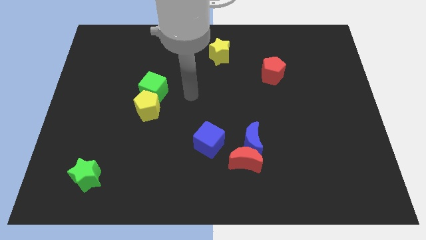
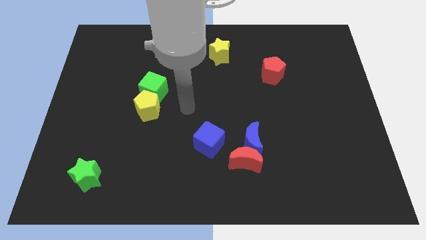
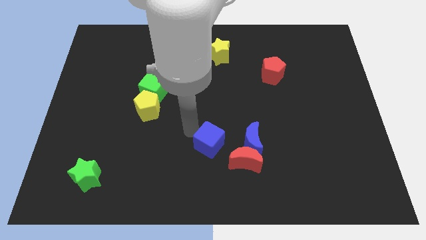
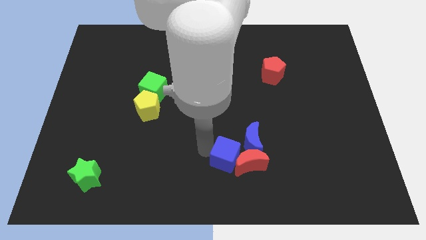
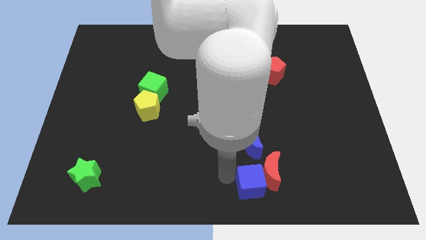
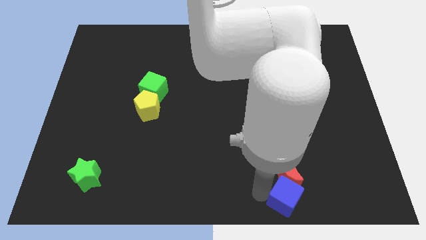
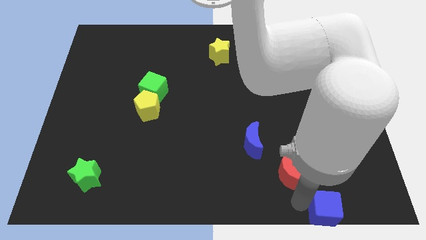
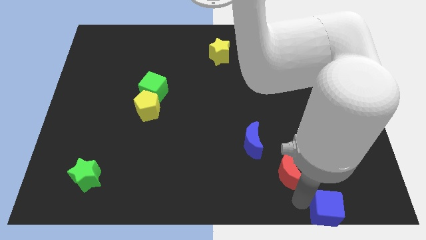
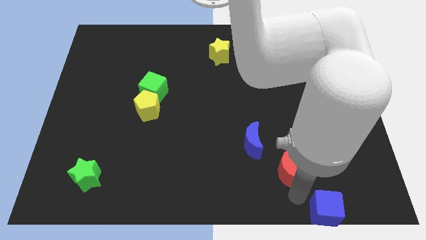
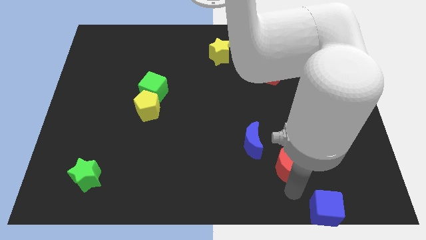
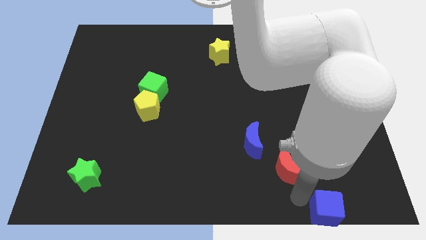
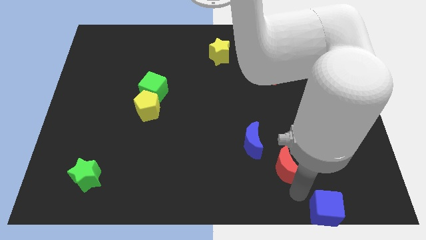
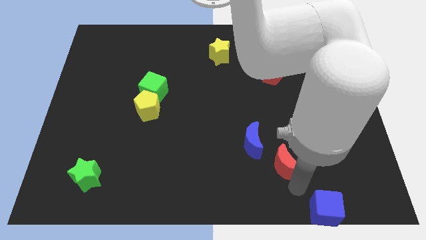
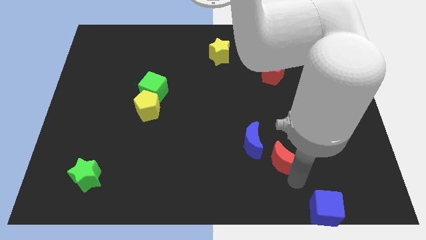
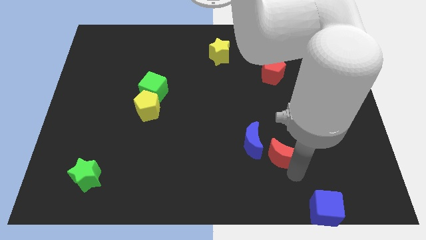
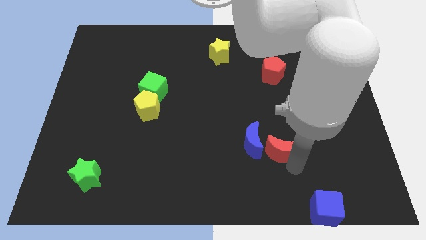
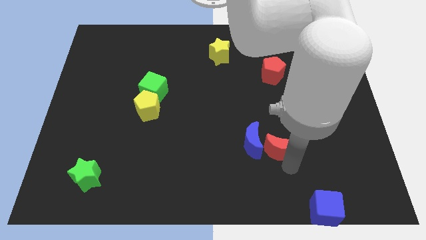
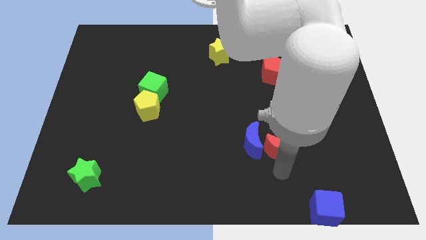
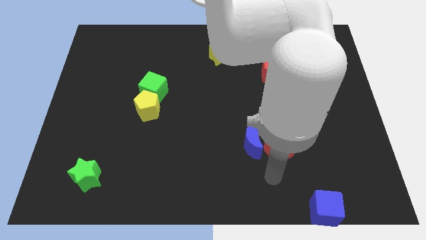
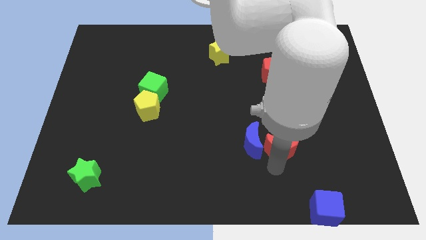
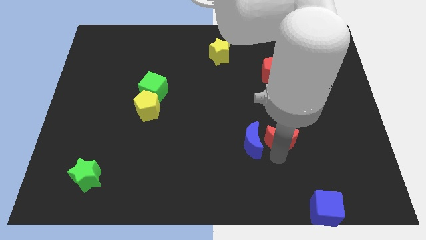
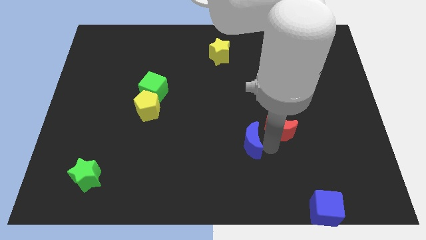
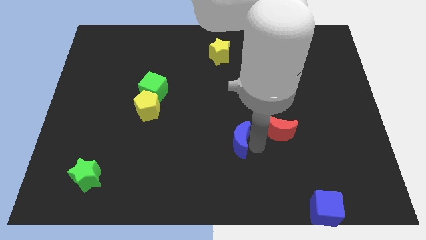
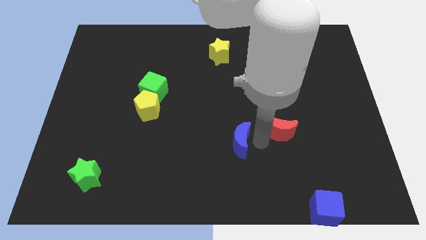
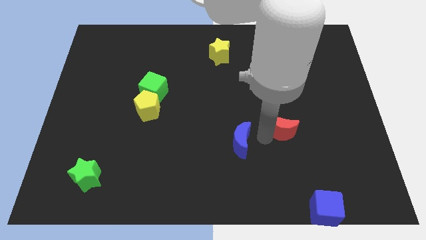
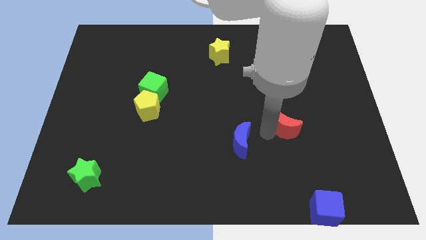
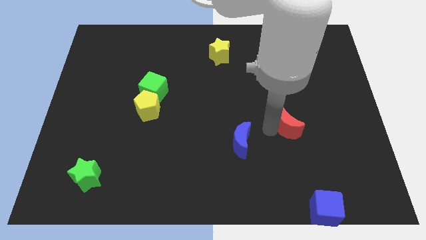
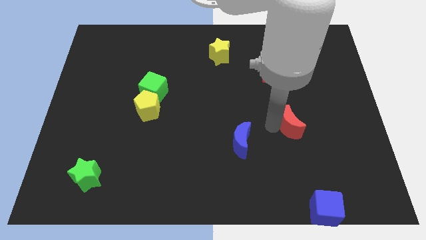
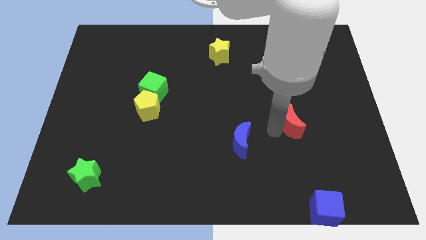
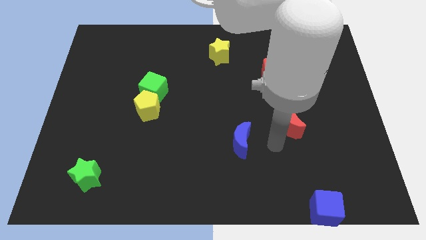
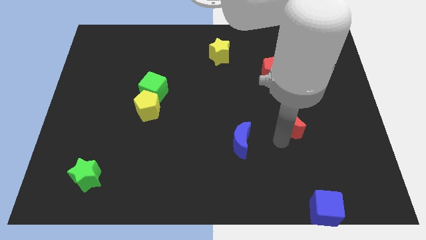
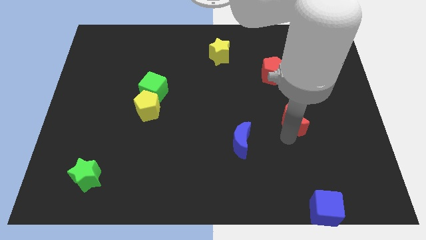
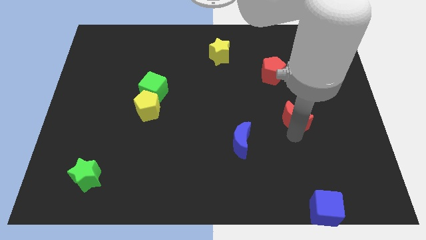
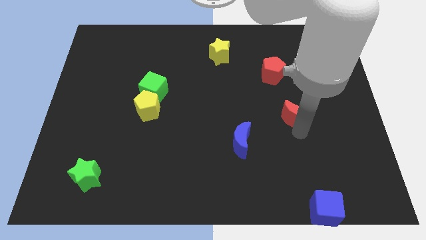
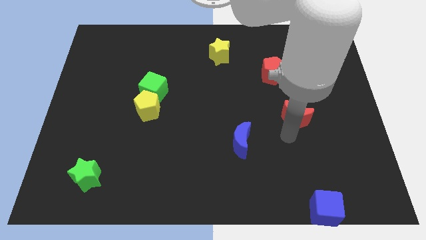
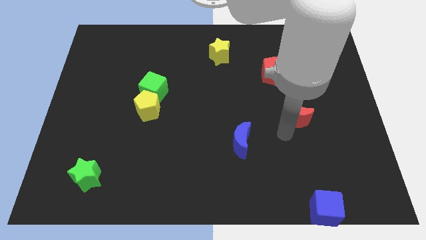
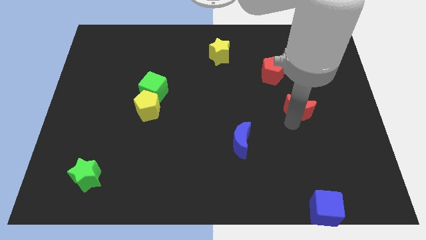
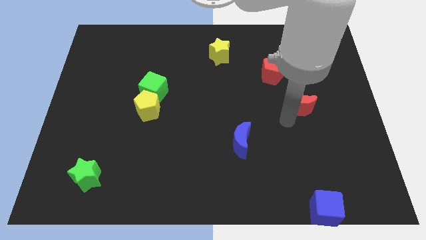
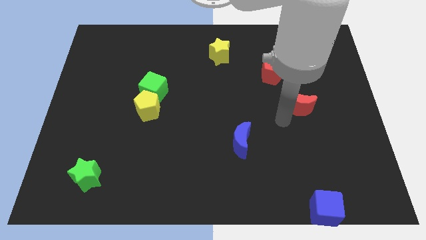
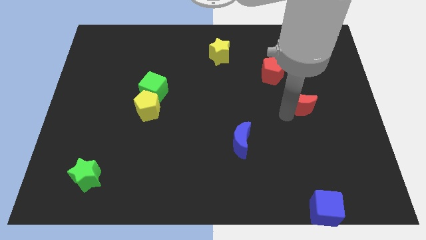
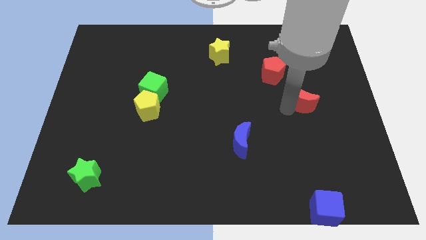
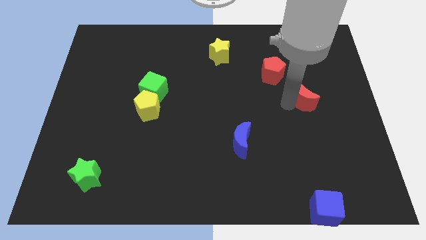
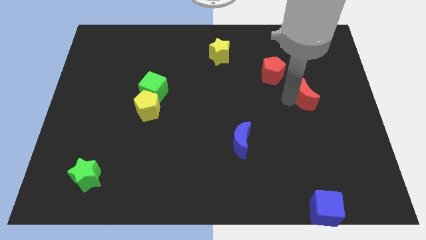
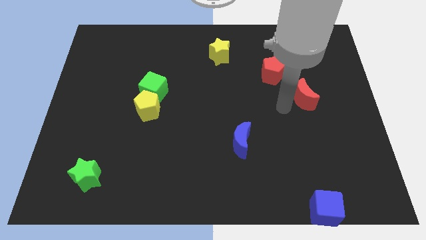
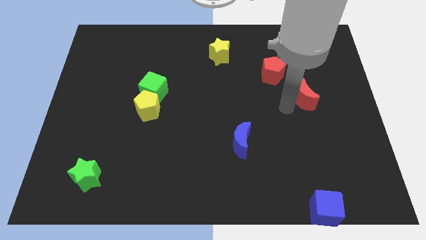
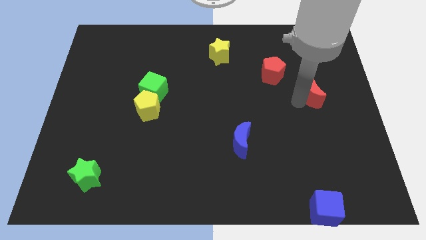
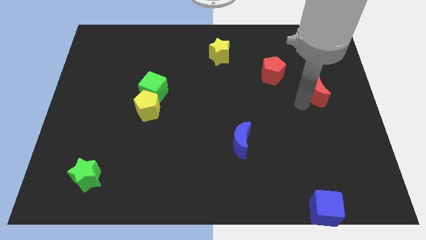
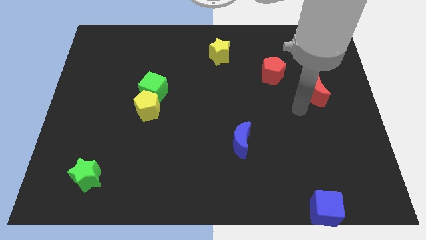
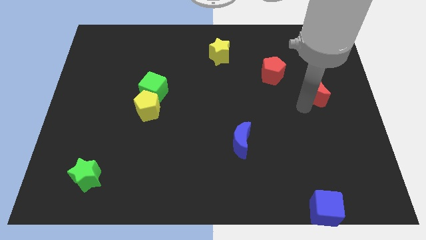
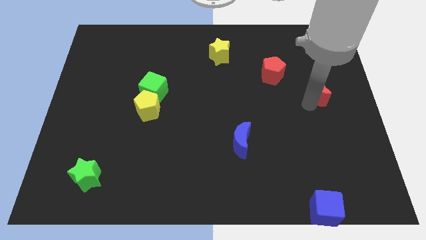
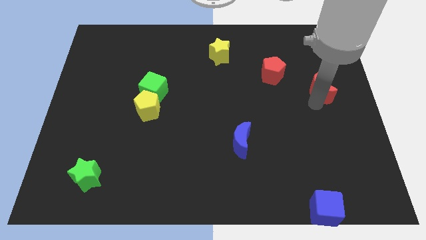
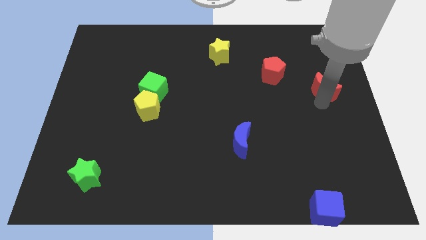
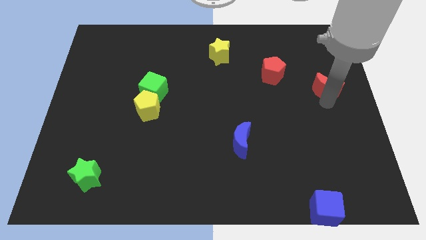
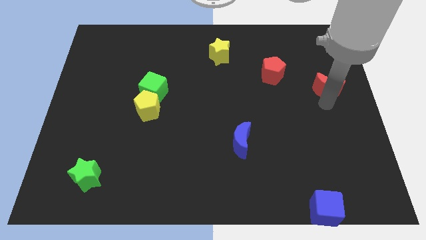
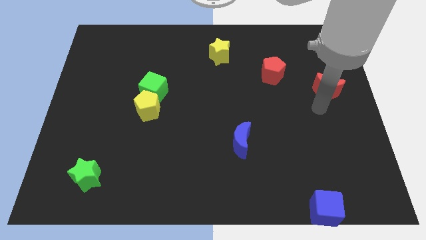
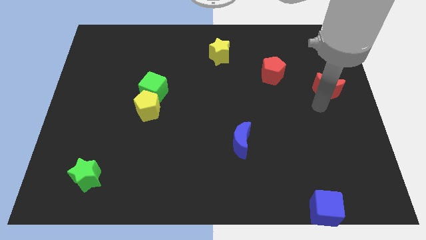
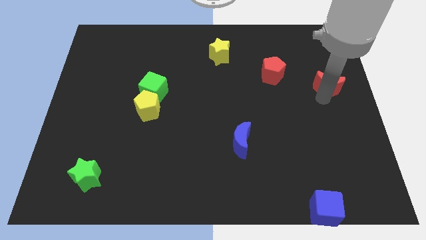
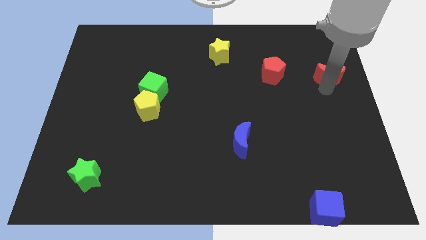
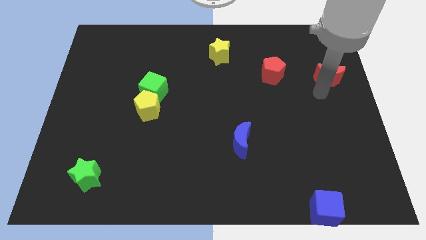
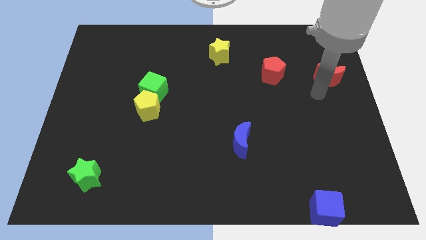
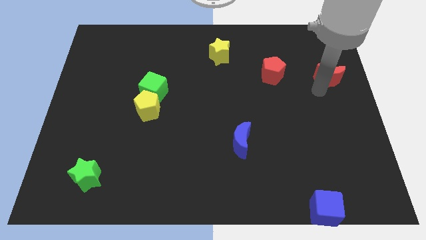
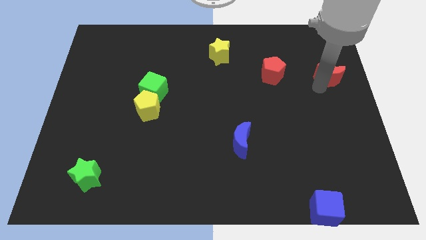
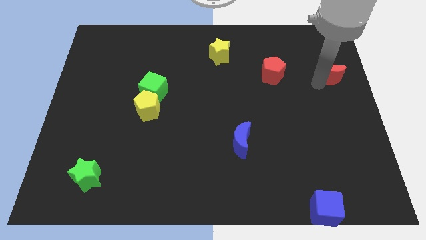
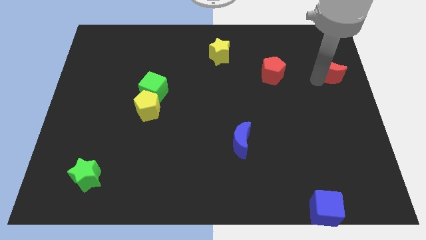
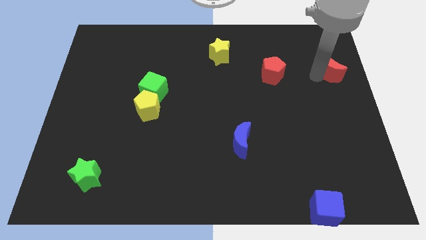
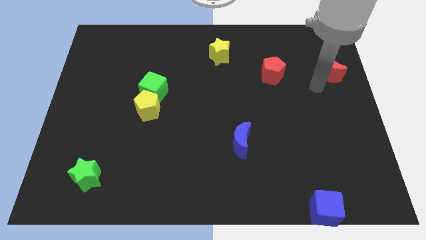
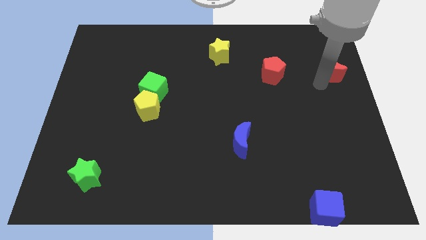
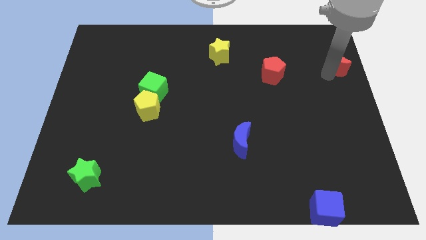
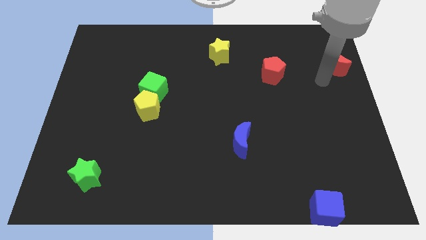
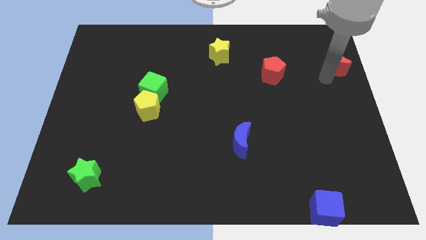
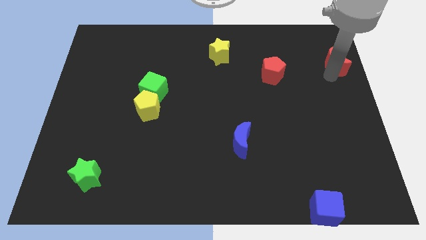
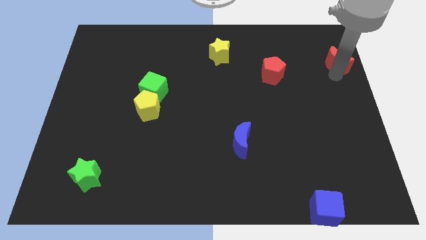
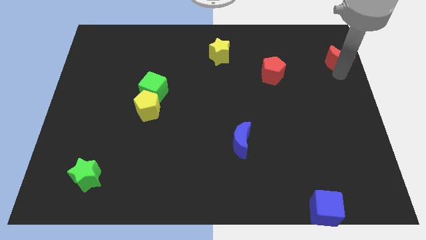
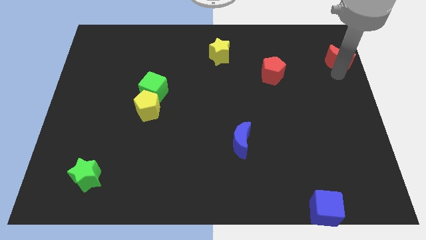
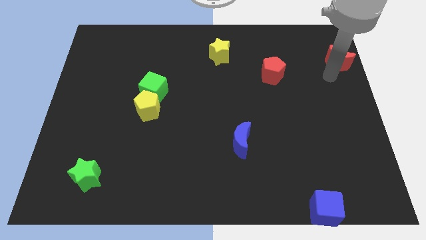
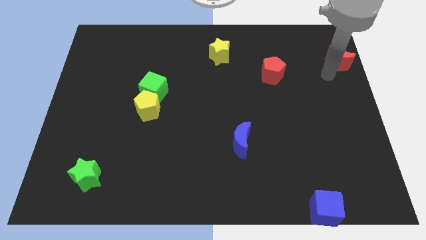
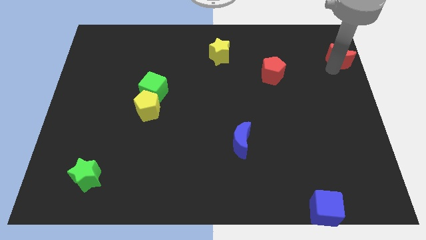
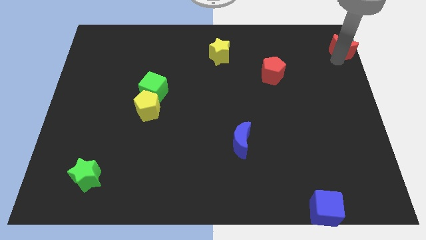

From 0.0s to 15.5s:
put the red moon to the top right
